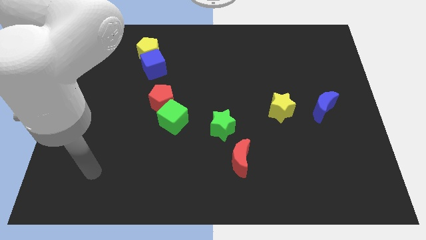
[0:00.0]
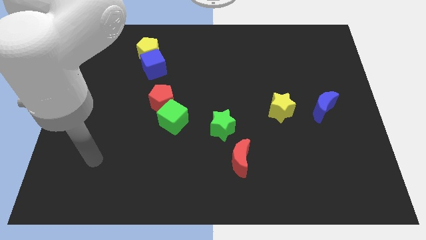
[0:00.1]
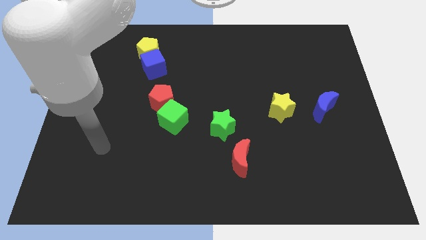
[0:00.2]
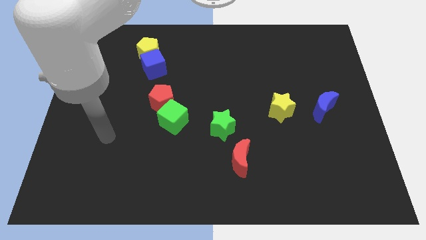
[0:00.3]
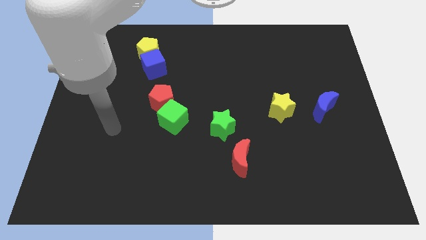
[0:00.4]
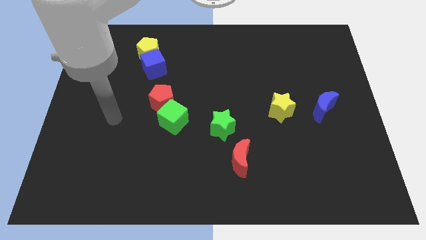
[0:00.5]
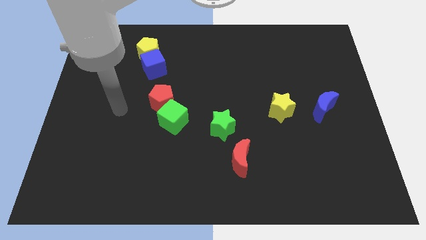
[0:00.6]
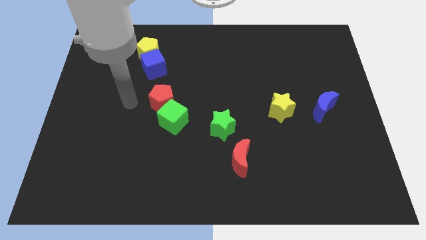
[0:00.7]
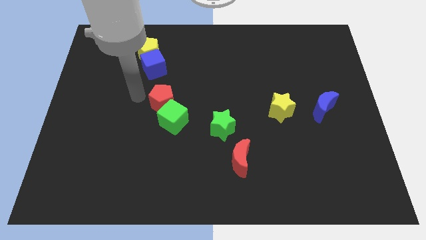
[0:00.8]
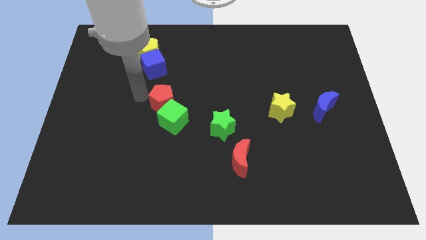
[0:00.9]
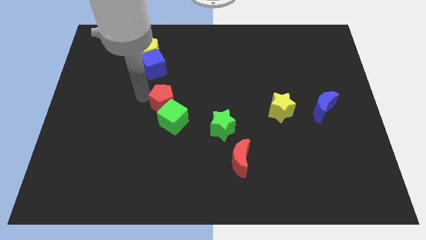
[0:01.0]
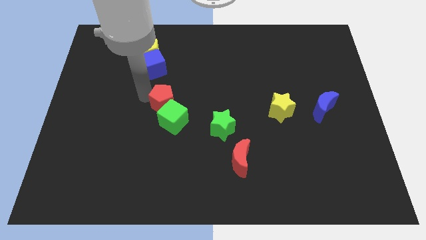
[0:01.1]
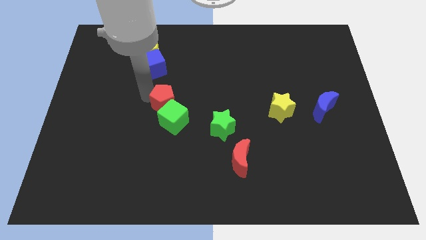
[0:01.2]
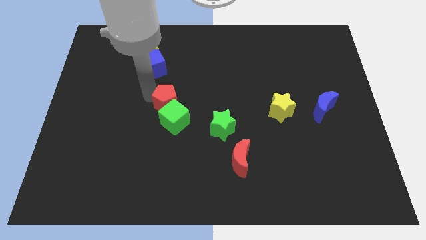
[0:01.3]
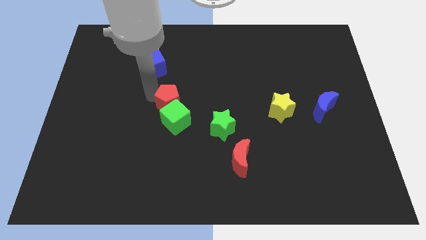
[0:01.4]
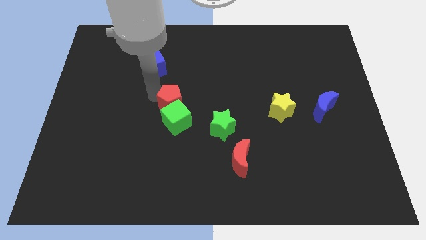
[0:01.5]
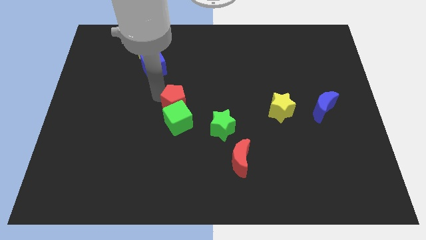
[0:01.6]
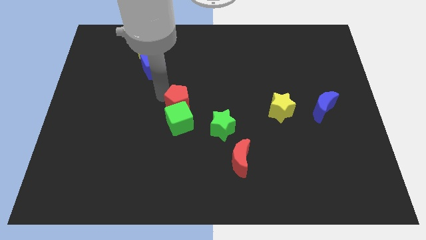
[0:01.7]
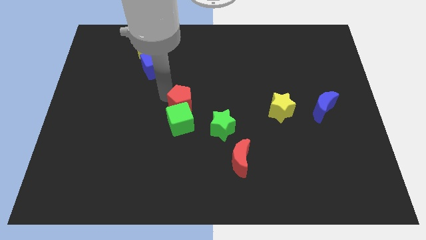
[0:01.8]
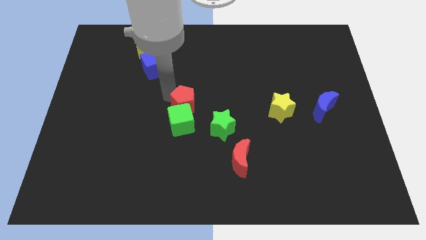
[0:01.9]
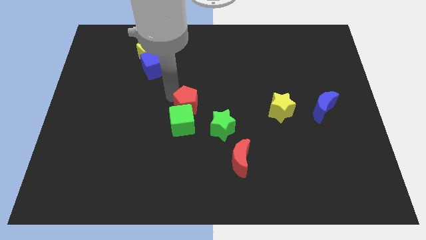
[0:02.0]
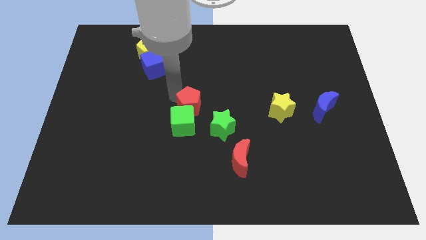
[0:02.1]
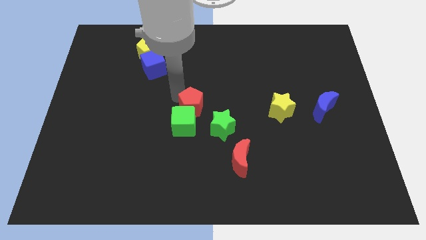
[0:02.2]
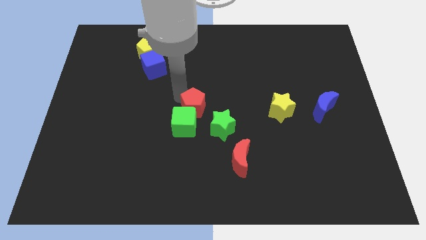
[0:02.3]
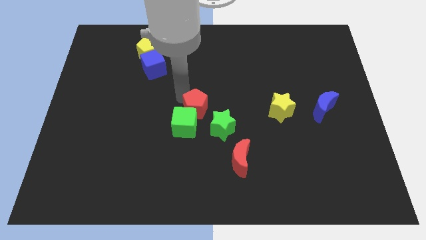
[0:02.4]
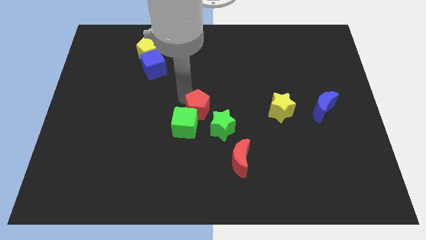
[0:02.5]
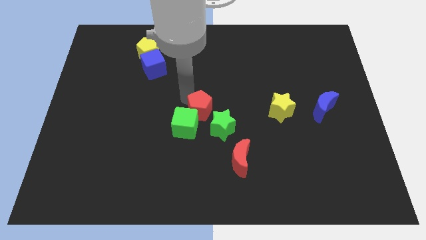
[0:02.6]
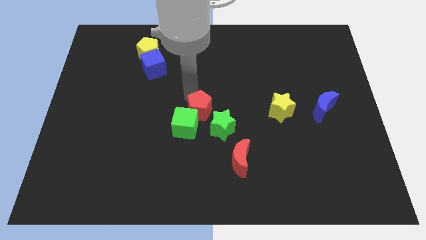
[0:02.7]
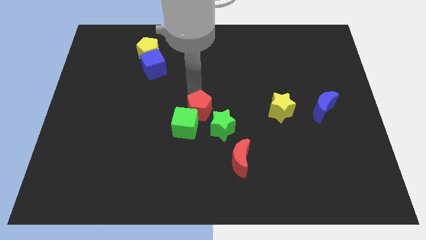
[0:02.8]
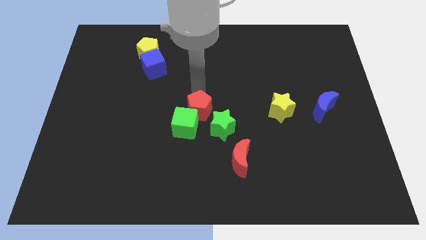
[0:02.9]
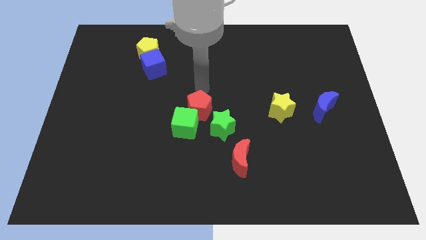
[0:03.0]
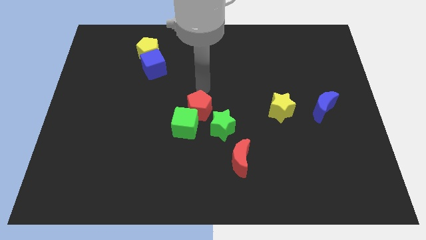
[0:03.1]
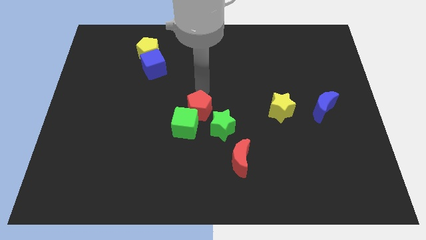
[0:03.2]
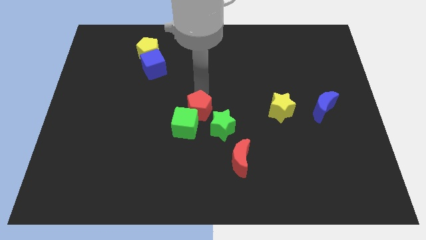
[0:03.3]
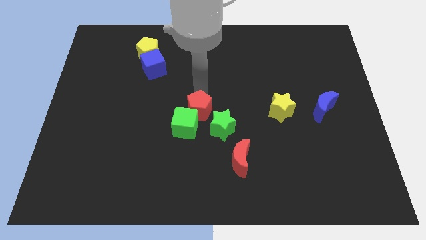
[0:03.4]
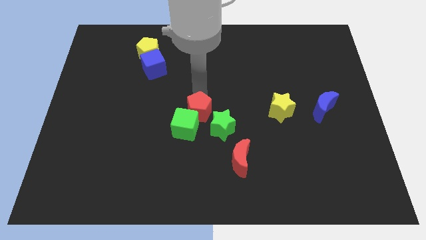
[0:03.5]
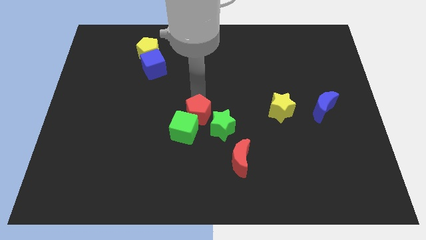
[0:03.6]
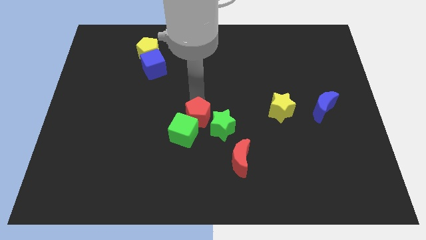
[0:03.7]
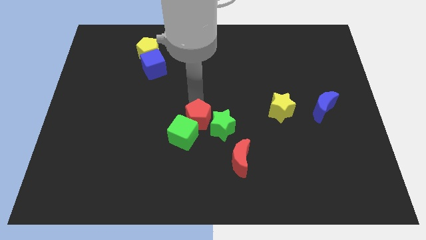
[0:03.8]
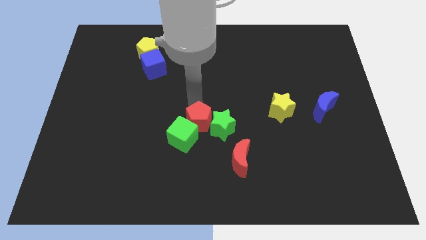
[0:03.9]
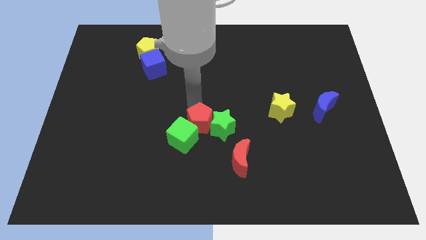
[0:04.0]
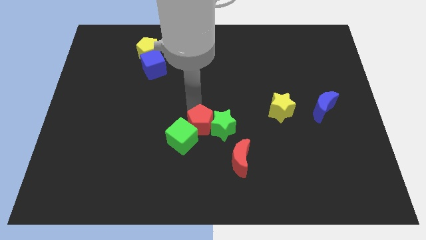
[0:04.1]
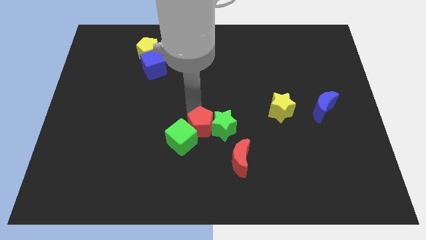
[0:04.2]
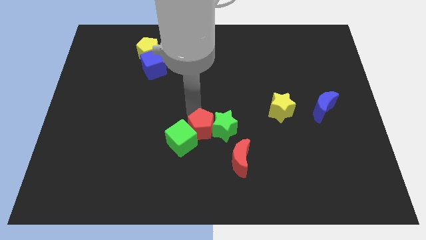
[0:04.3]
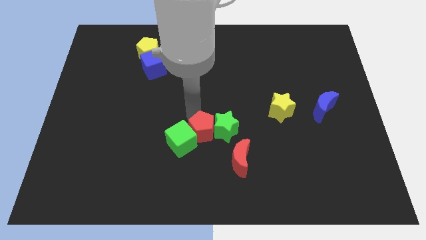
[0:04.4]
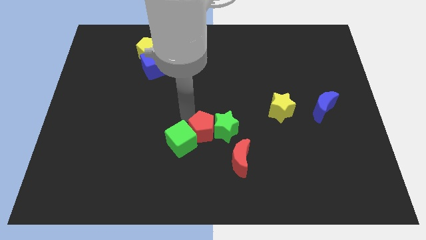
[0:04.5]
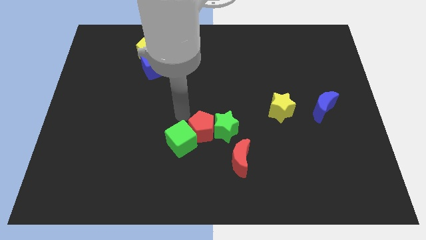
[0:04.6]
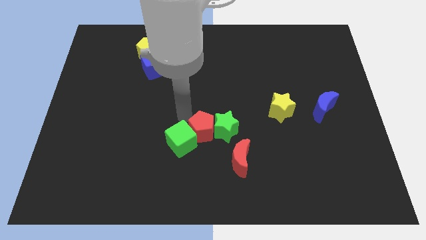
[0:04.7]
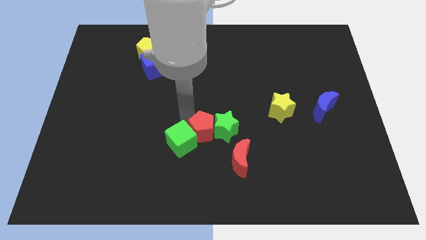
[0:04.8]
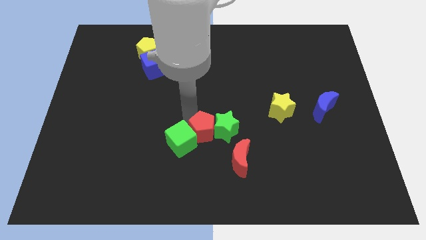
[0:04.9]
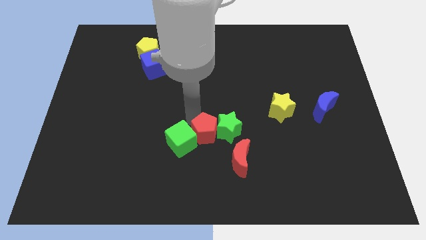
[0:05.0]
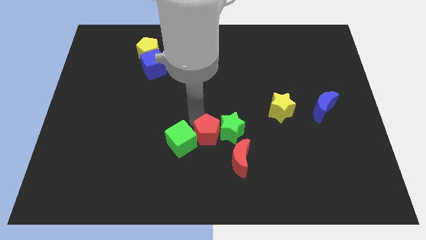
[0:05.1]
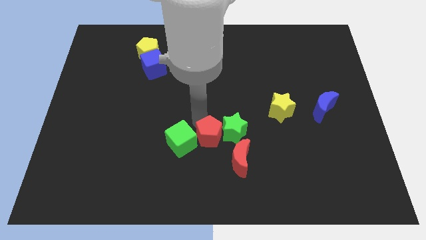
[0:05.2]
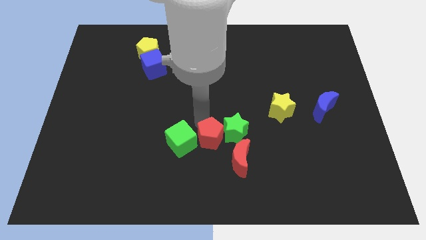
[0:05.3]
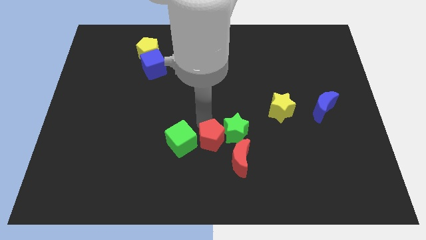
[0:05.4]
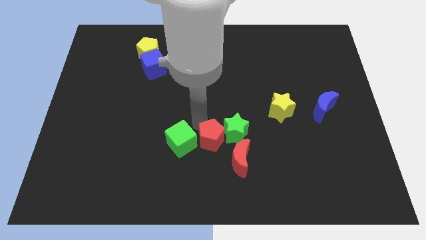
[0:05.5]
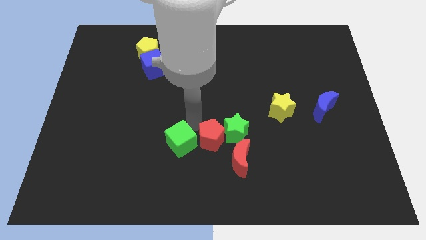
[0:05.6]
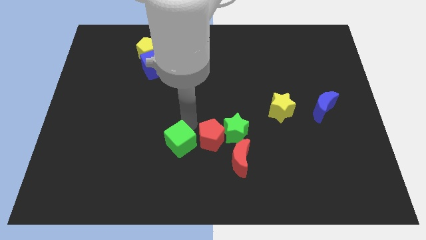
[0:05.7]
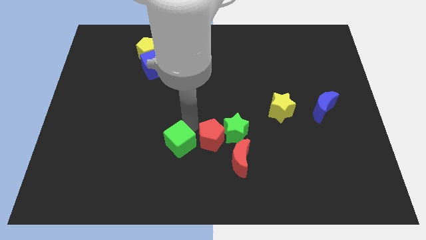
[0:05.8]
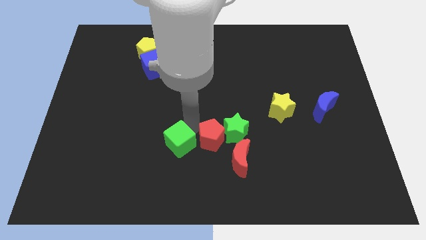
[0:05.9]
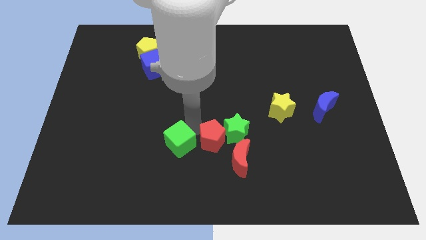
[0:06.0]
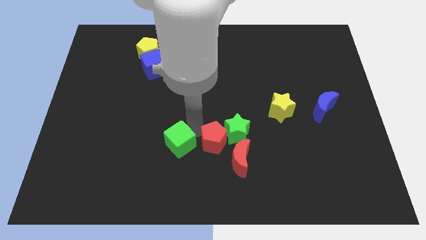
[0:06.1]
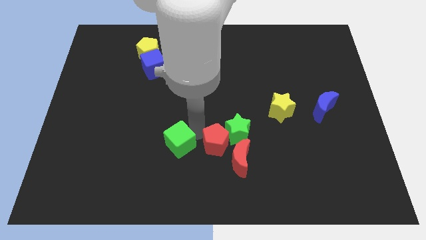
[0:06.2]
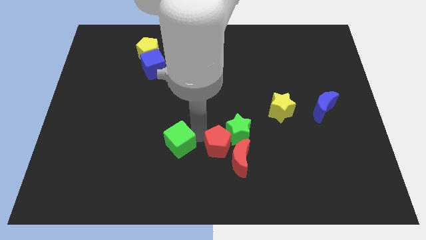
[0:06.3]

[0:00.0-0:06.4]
push the red pentagon close to the red moon

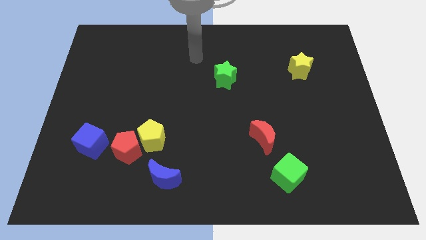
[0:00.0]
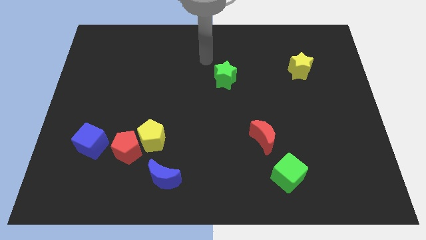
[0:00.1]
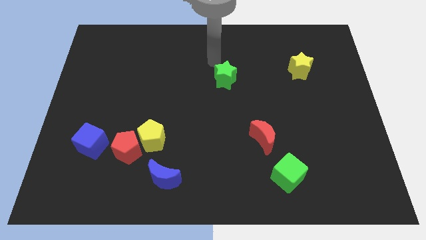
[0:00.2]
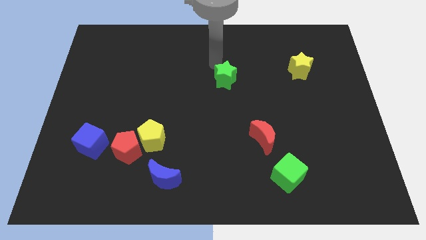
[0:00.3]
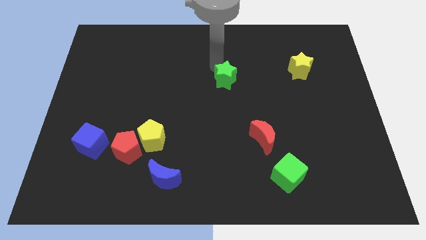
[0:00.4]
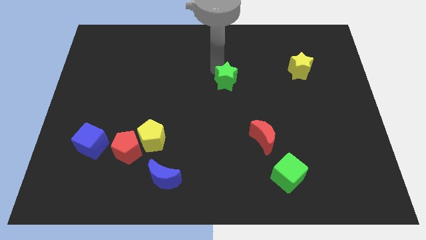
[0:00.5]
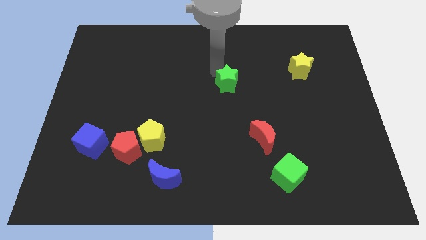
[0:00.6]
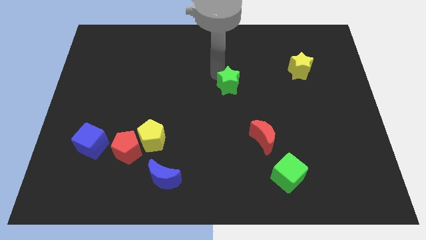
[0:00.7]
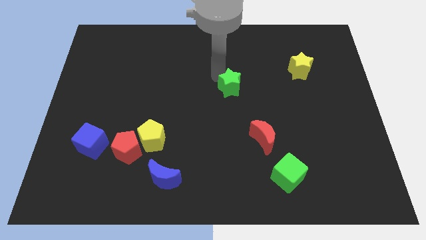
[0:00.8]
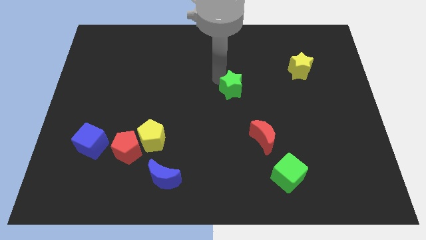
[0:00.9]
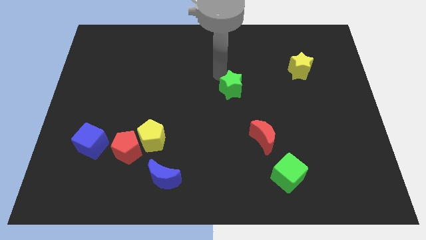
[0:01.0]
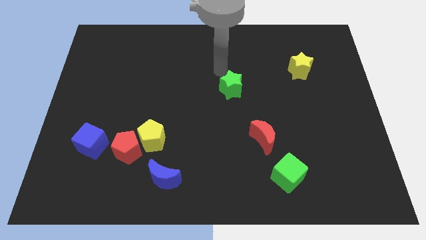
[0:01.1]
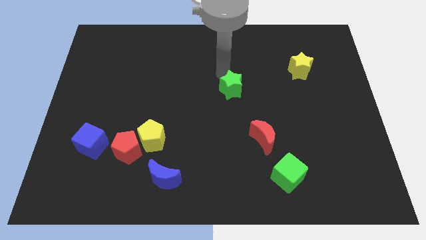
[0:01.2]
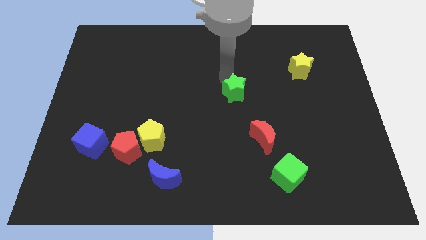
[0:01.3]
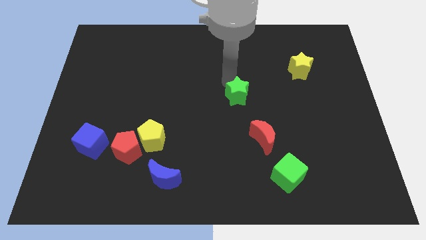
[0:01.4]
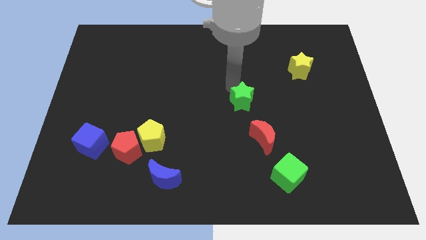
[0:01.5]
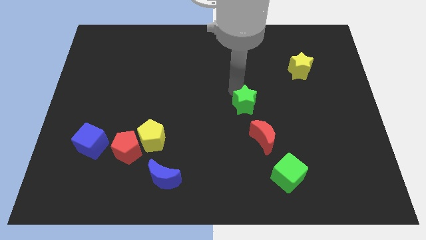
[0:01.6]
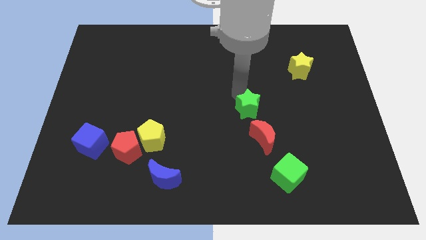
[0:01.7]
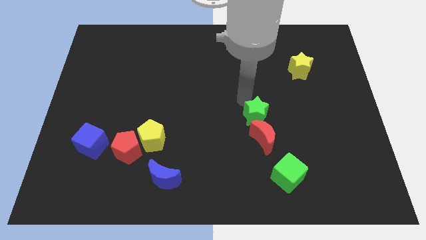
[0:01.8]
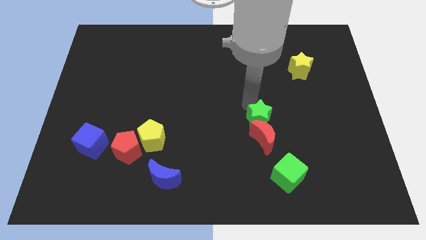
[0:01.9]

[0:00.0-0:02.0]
push the green star to the red moon
